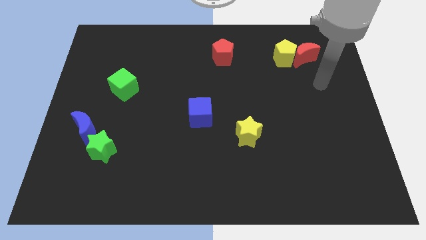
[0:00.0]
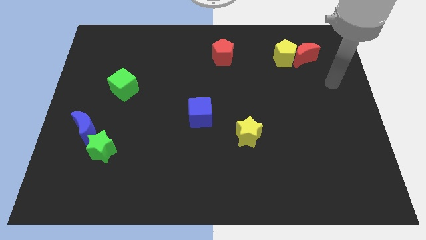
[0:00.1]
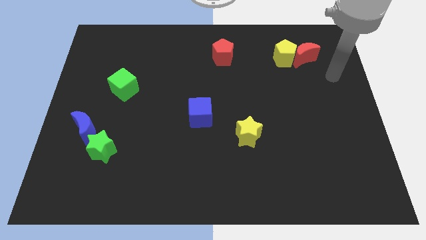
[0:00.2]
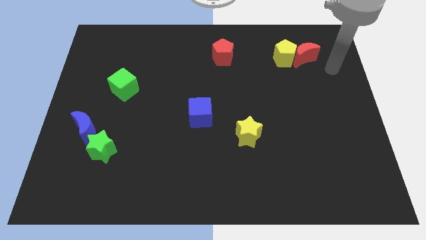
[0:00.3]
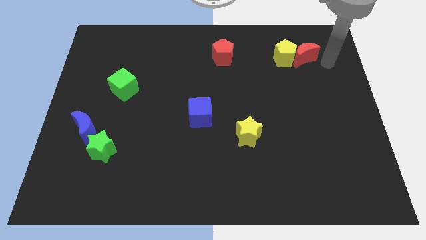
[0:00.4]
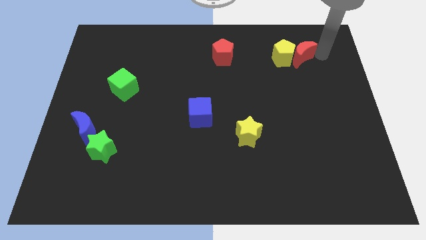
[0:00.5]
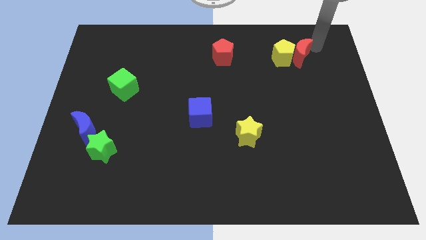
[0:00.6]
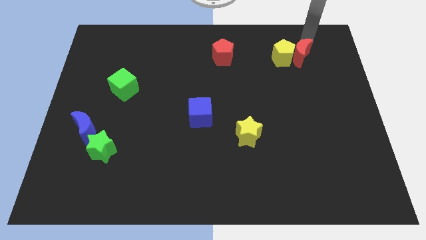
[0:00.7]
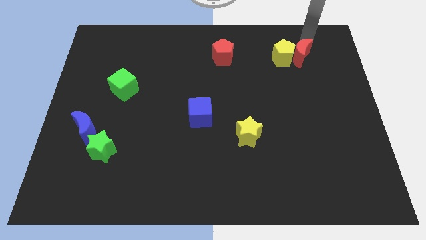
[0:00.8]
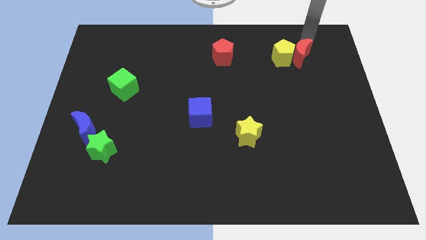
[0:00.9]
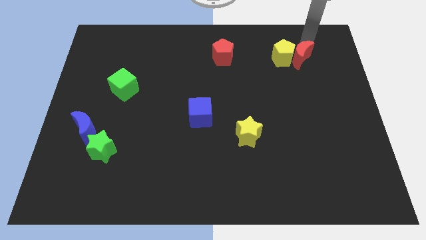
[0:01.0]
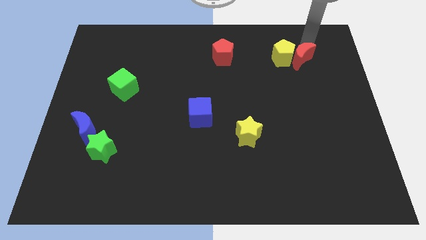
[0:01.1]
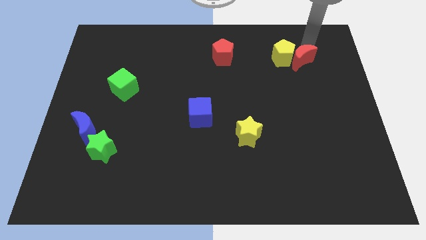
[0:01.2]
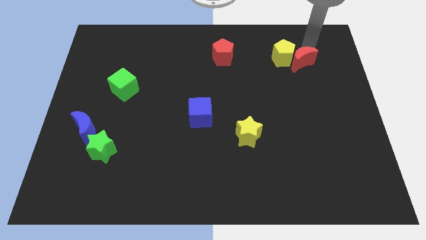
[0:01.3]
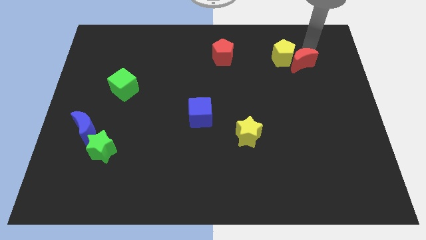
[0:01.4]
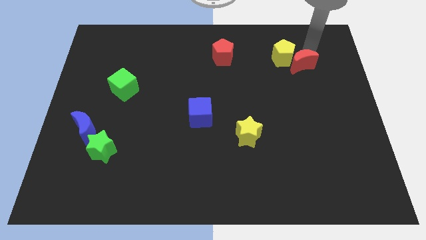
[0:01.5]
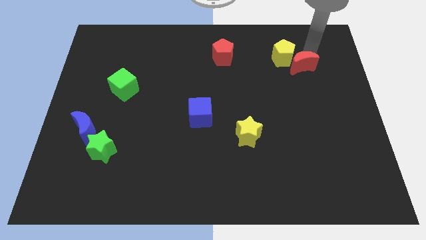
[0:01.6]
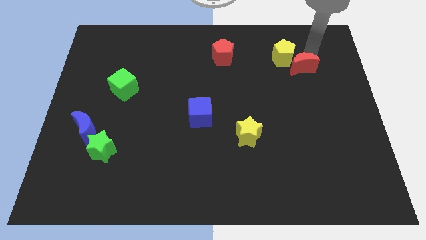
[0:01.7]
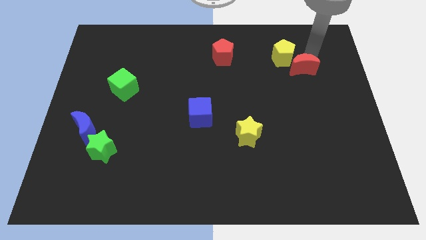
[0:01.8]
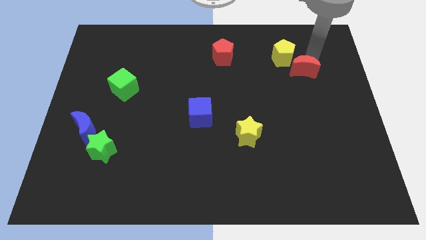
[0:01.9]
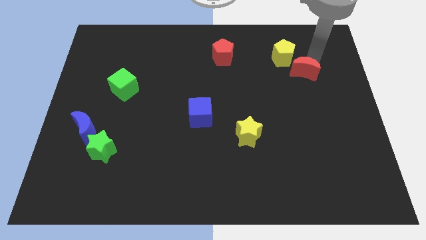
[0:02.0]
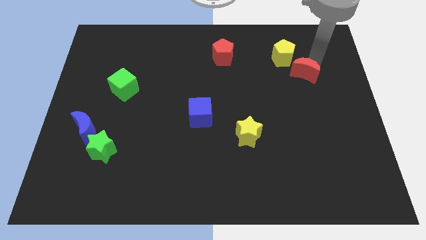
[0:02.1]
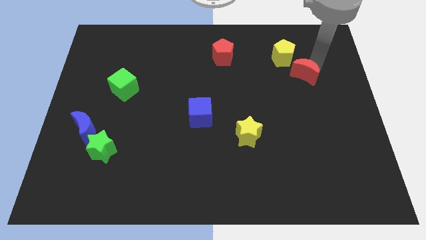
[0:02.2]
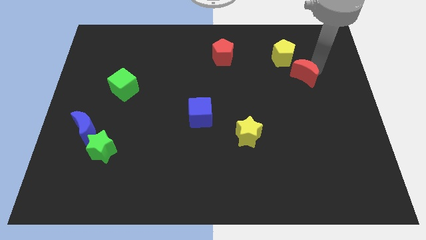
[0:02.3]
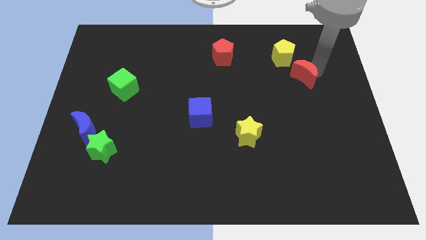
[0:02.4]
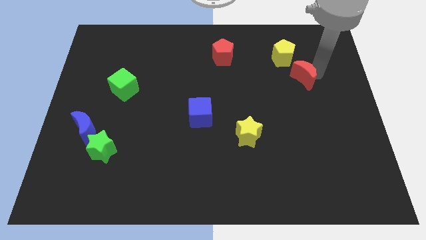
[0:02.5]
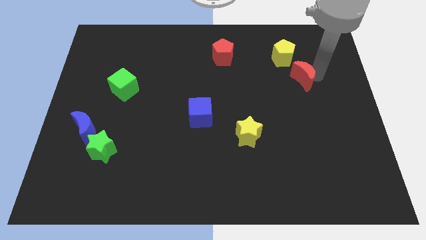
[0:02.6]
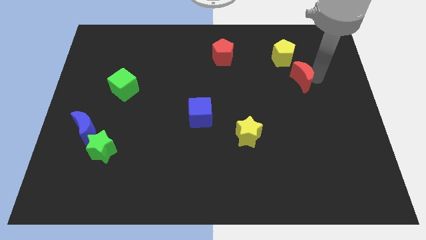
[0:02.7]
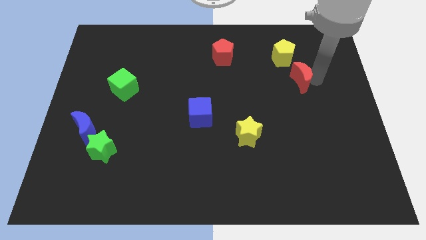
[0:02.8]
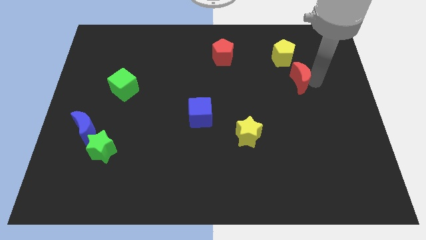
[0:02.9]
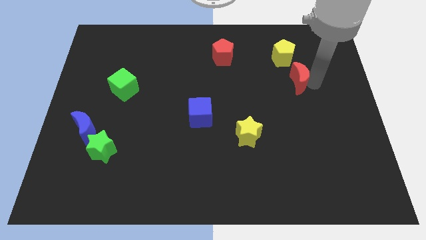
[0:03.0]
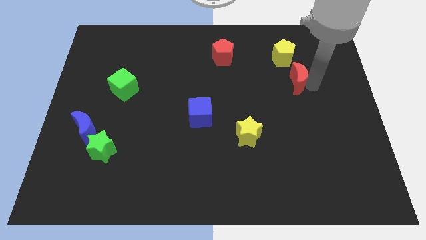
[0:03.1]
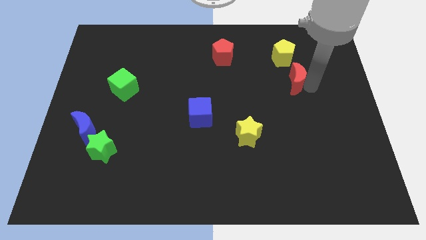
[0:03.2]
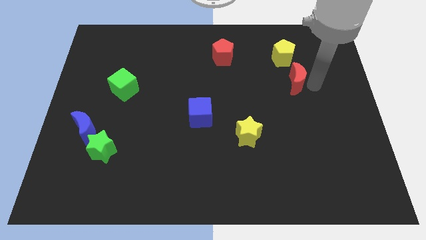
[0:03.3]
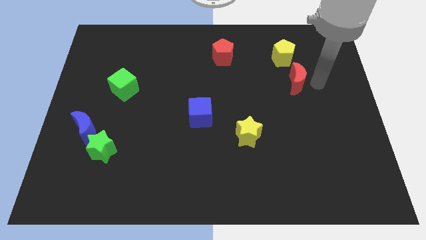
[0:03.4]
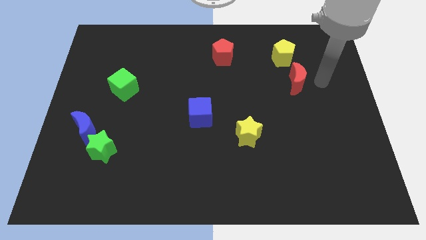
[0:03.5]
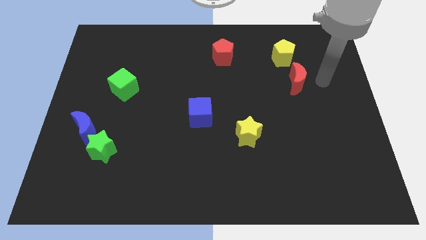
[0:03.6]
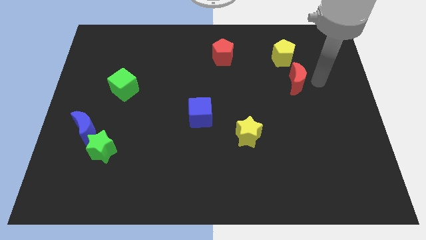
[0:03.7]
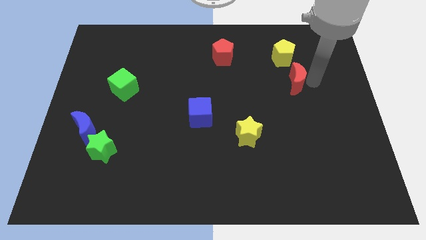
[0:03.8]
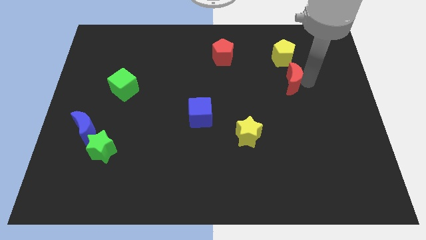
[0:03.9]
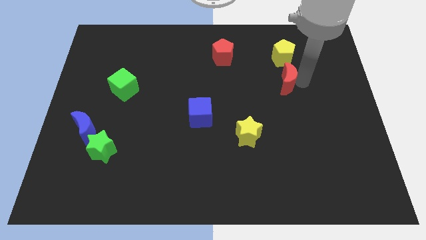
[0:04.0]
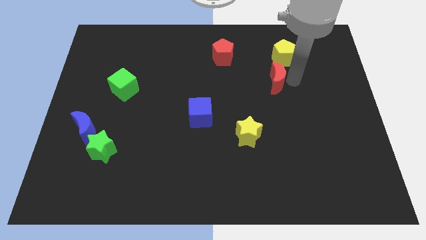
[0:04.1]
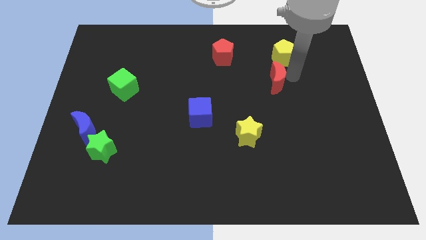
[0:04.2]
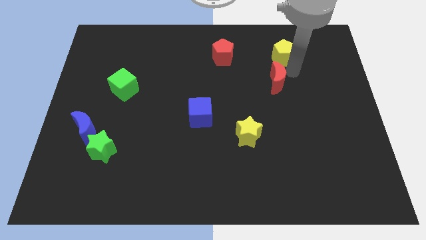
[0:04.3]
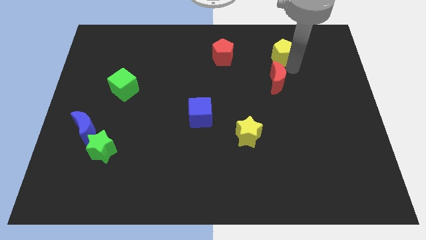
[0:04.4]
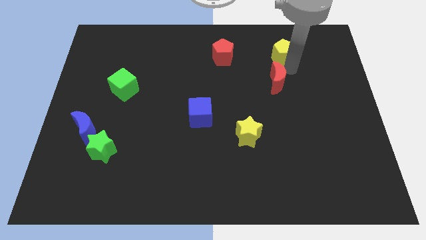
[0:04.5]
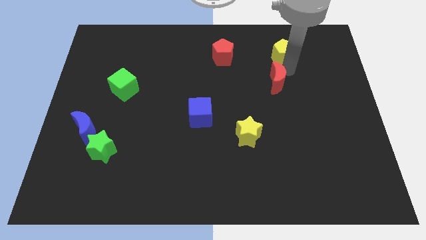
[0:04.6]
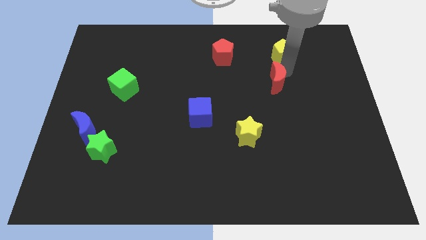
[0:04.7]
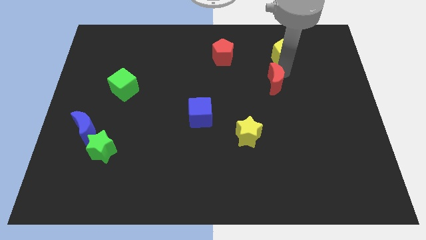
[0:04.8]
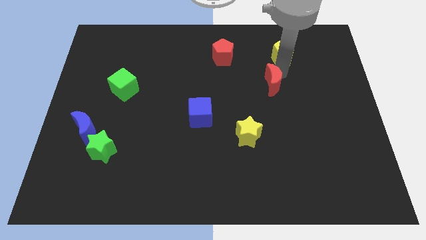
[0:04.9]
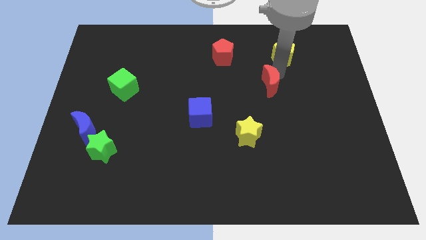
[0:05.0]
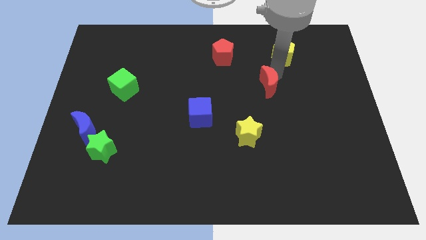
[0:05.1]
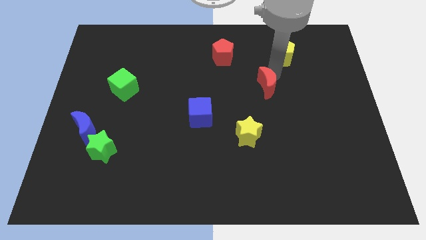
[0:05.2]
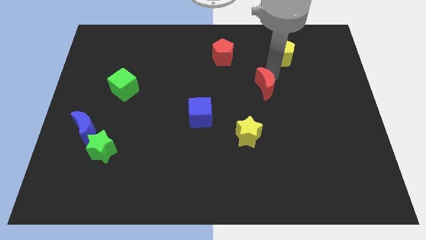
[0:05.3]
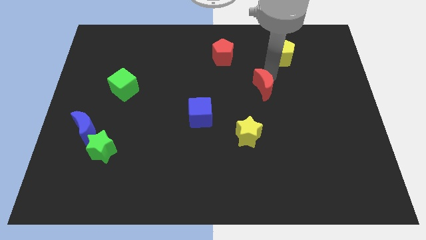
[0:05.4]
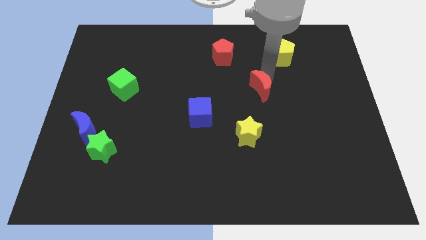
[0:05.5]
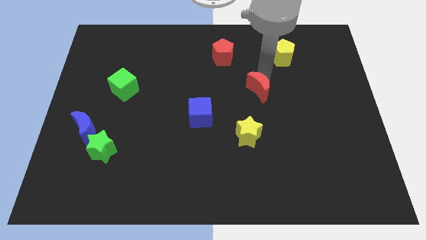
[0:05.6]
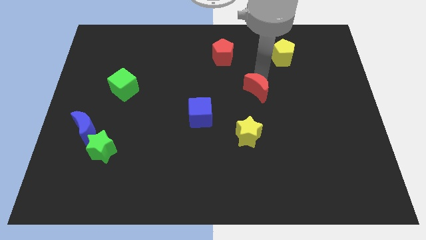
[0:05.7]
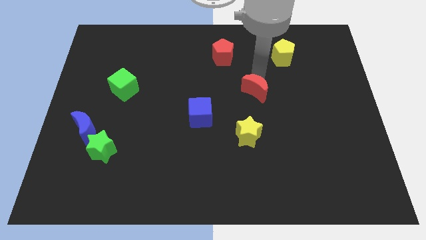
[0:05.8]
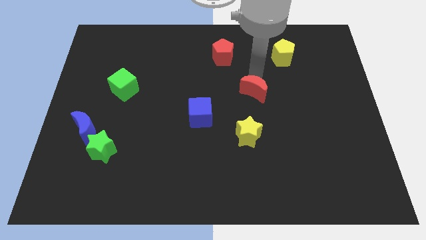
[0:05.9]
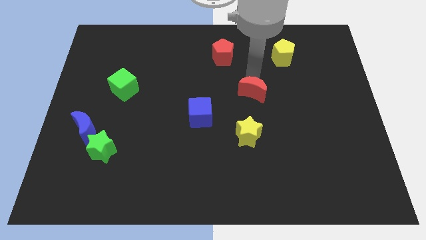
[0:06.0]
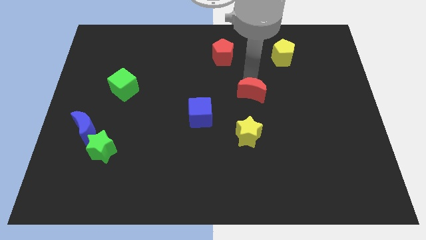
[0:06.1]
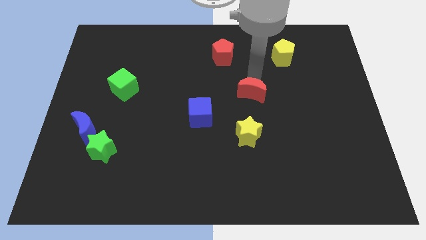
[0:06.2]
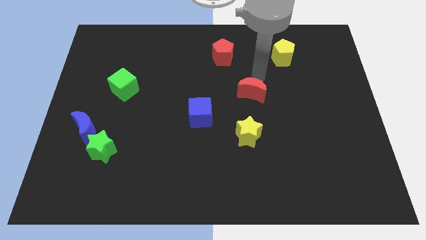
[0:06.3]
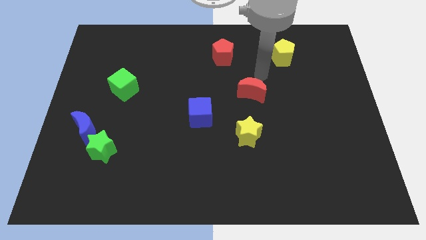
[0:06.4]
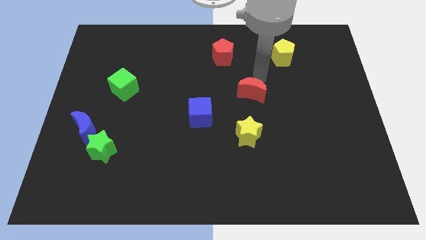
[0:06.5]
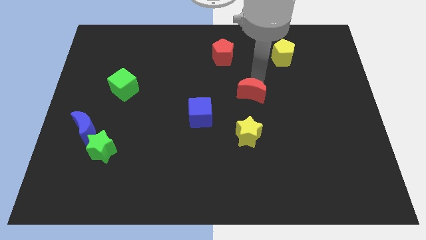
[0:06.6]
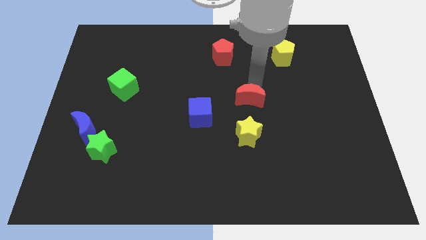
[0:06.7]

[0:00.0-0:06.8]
move the red moon downwards and left

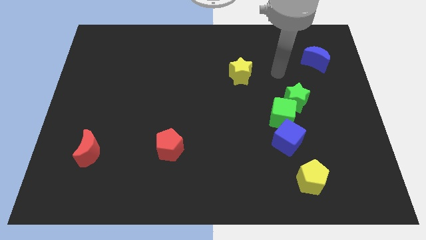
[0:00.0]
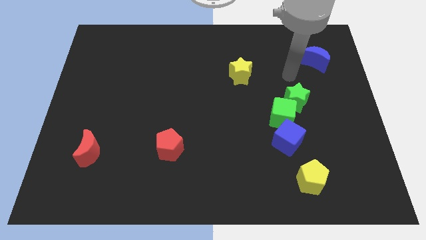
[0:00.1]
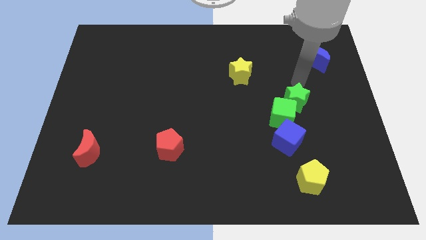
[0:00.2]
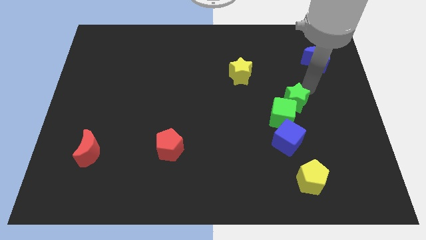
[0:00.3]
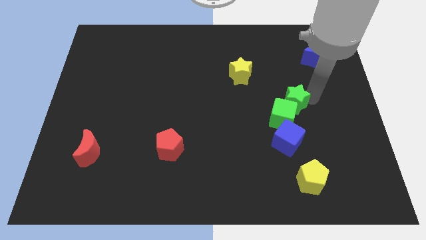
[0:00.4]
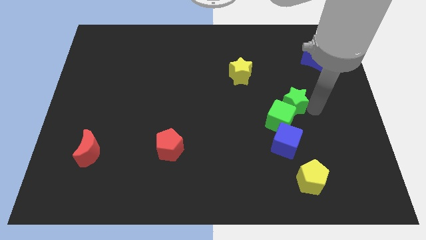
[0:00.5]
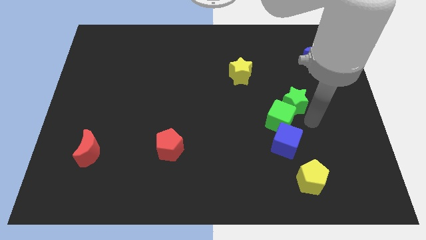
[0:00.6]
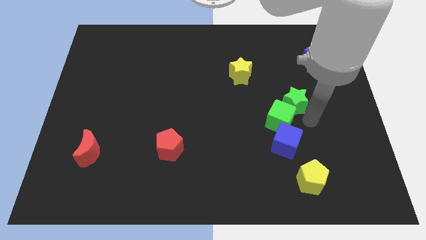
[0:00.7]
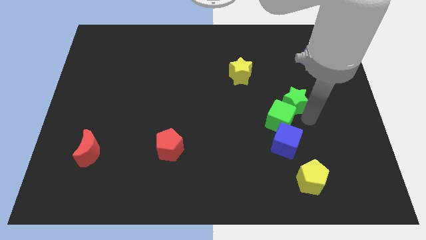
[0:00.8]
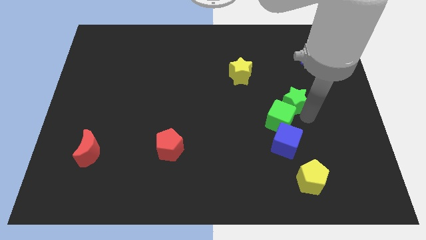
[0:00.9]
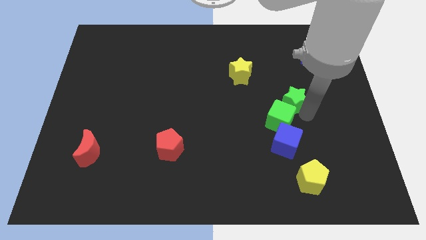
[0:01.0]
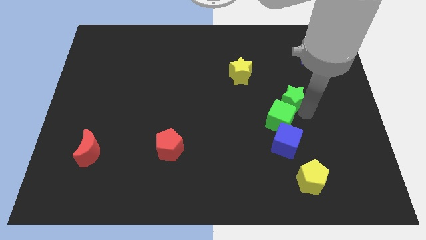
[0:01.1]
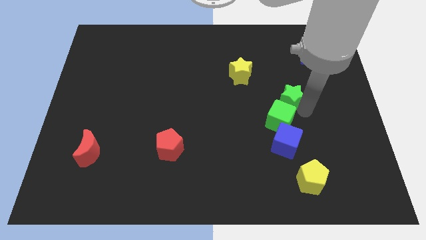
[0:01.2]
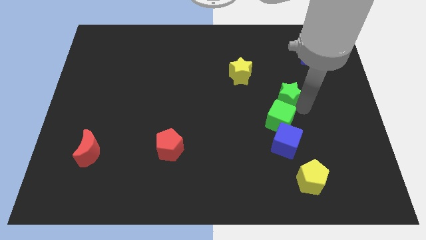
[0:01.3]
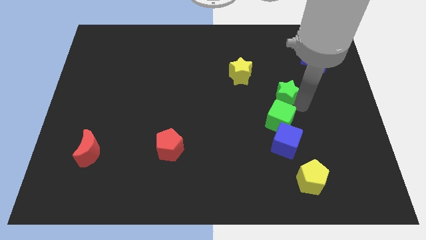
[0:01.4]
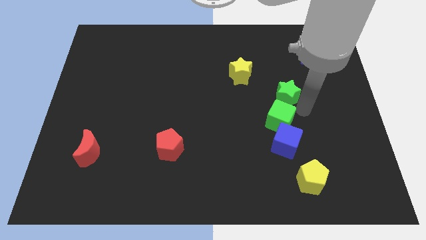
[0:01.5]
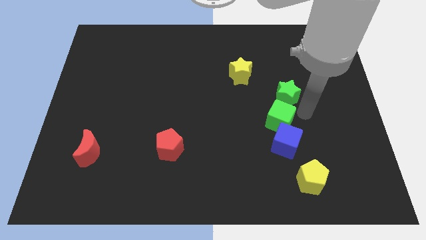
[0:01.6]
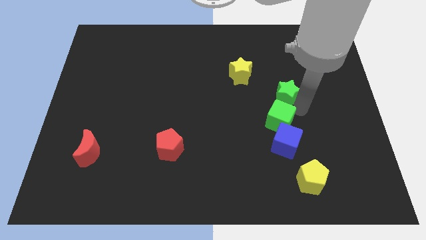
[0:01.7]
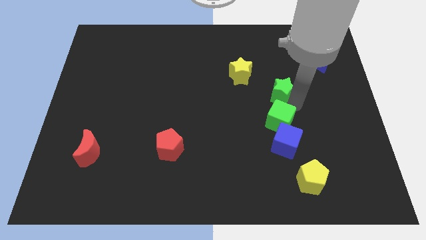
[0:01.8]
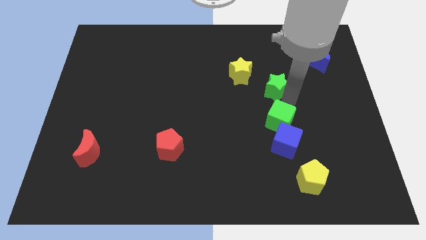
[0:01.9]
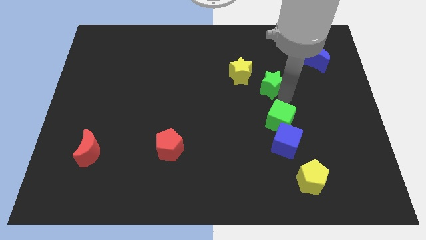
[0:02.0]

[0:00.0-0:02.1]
slightly move the green star diagonally upwards and left
